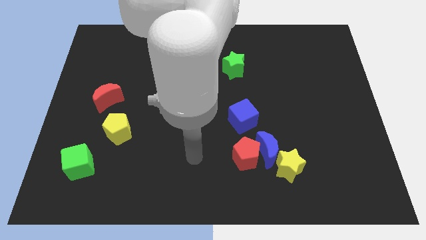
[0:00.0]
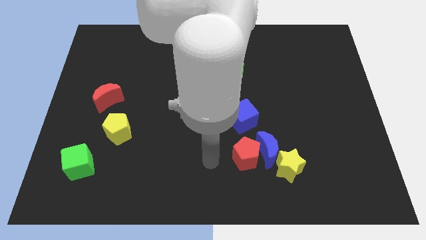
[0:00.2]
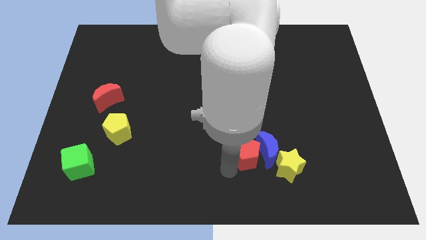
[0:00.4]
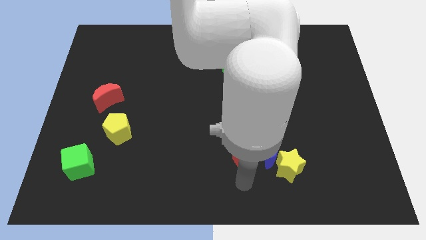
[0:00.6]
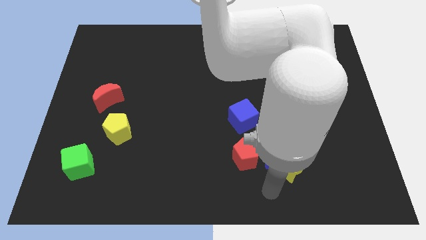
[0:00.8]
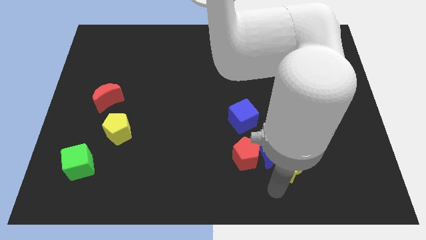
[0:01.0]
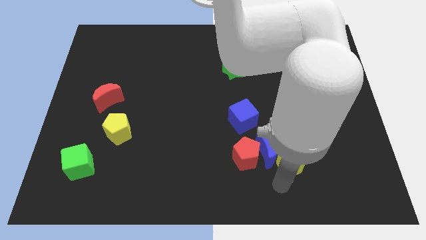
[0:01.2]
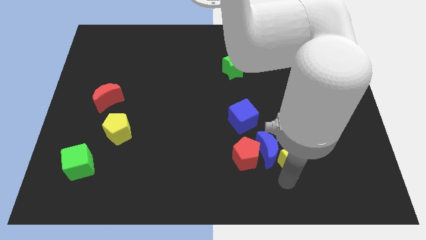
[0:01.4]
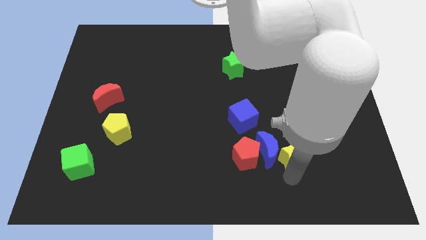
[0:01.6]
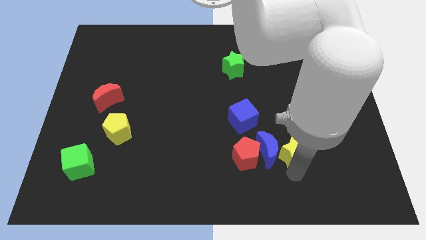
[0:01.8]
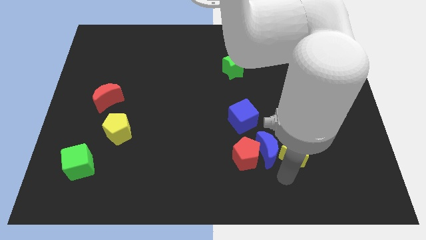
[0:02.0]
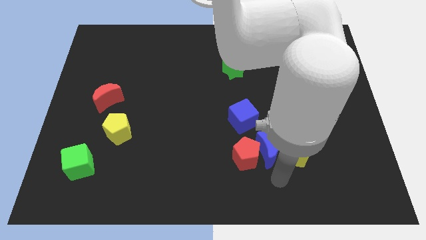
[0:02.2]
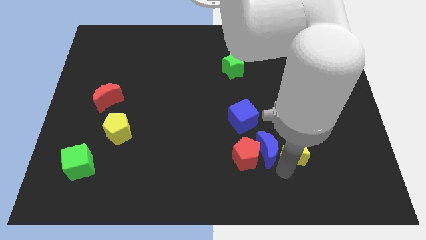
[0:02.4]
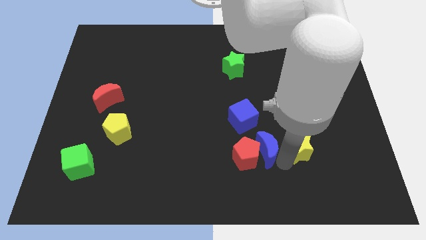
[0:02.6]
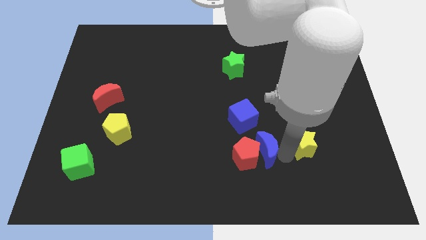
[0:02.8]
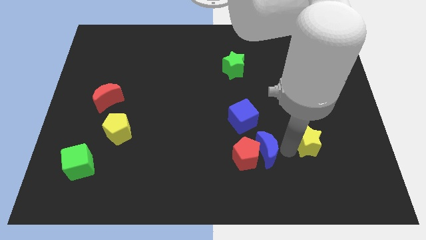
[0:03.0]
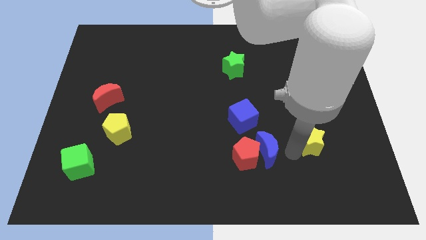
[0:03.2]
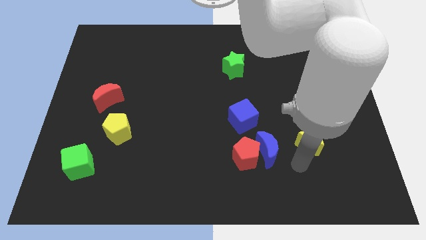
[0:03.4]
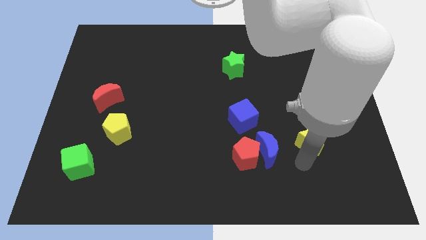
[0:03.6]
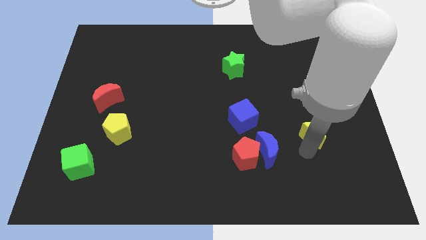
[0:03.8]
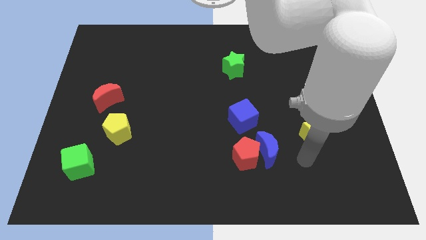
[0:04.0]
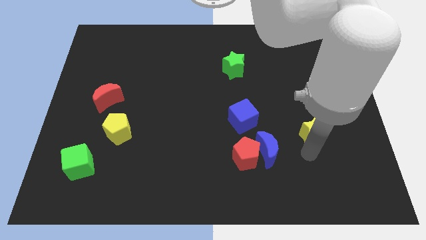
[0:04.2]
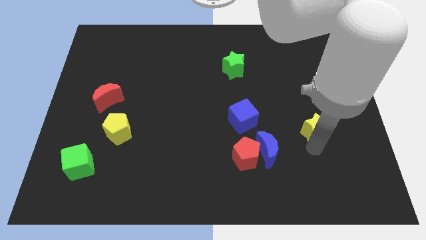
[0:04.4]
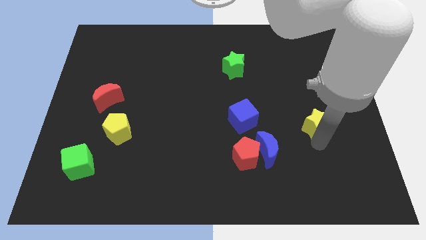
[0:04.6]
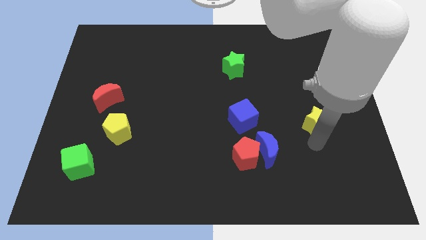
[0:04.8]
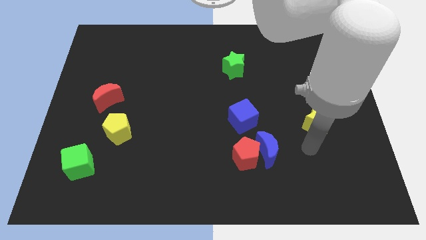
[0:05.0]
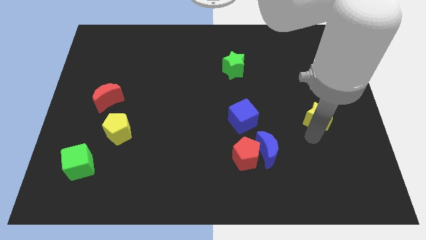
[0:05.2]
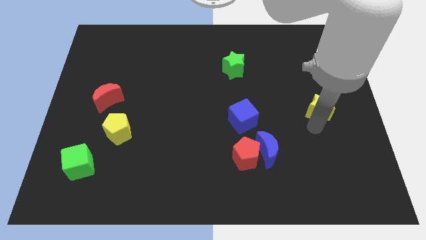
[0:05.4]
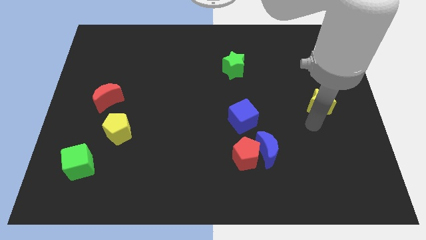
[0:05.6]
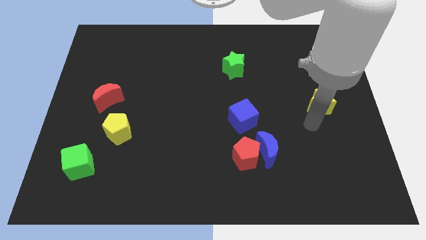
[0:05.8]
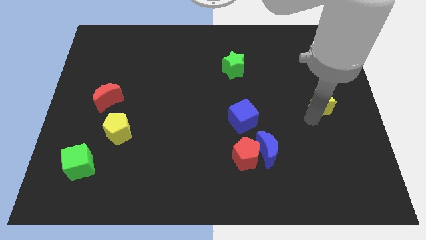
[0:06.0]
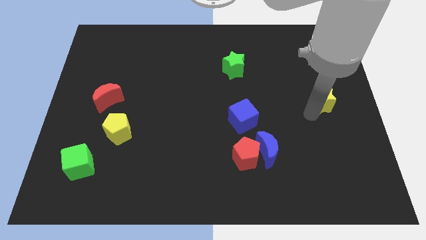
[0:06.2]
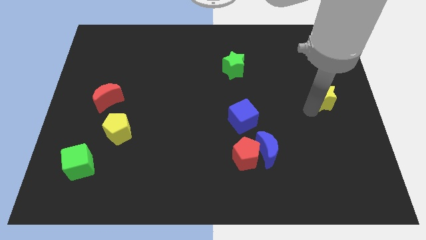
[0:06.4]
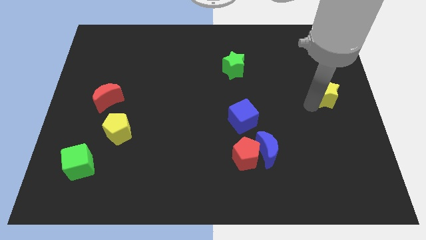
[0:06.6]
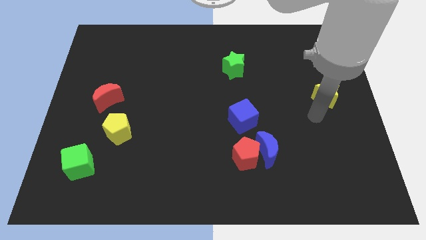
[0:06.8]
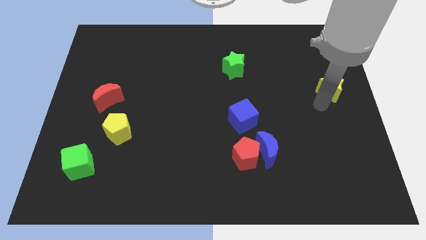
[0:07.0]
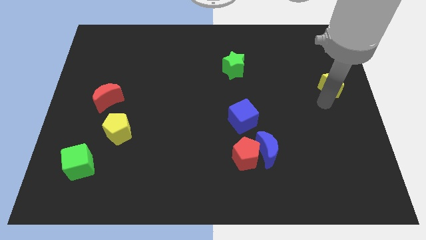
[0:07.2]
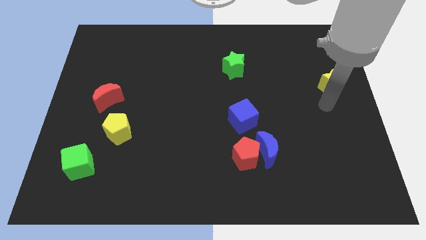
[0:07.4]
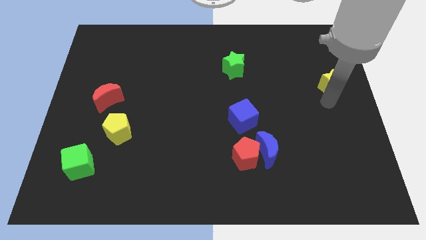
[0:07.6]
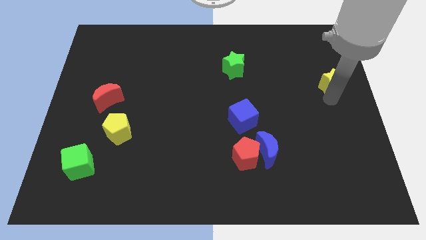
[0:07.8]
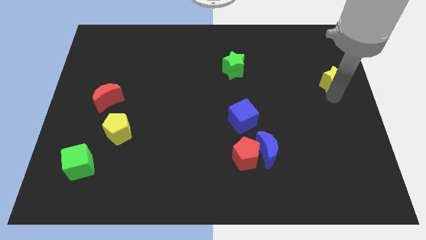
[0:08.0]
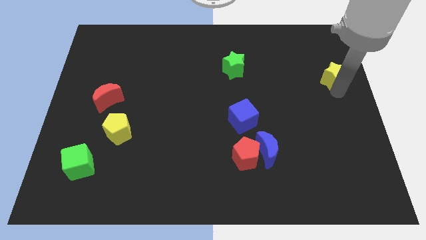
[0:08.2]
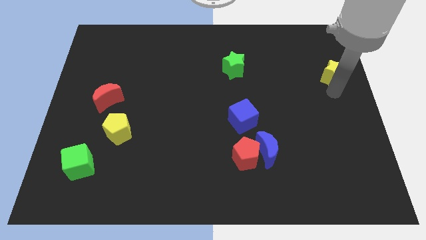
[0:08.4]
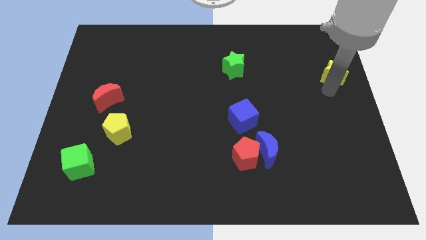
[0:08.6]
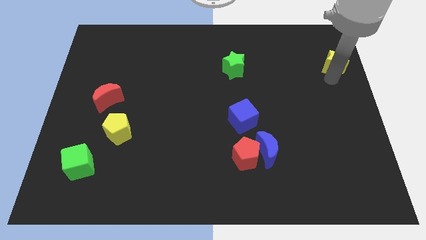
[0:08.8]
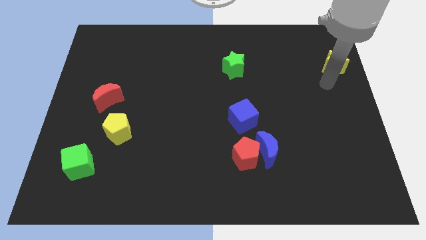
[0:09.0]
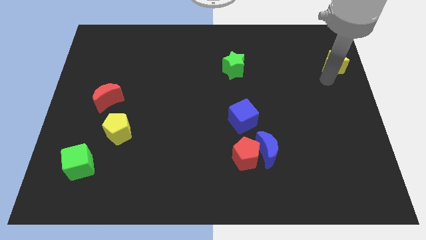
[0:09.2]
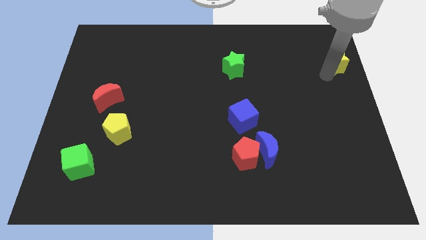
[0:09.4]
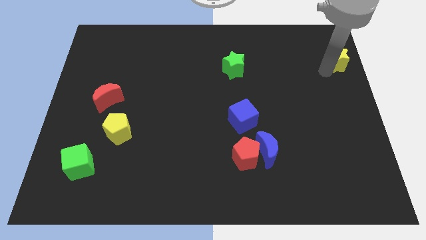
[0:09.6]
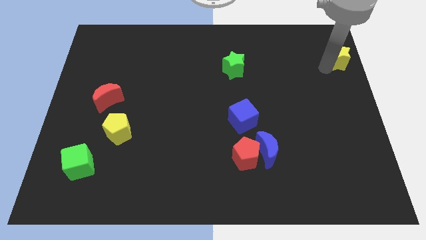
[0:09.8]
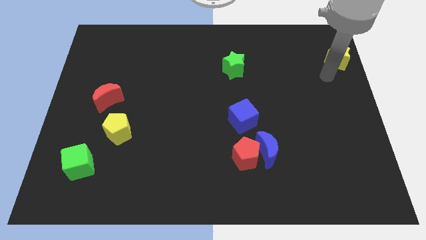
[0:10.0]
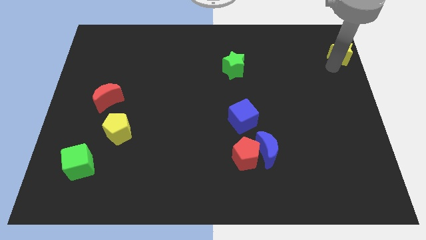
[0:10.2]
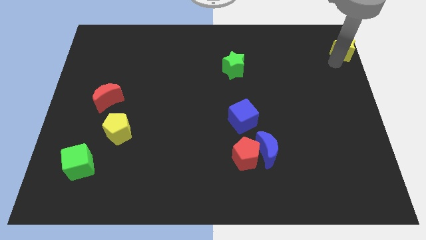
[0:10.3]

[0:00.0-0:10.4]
move the yellow star to the top right corner
